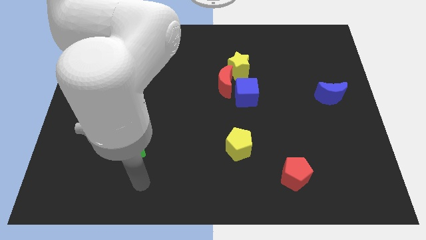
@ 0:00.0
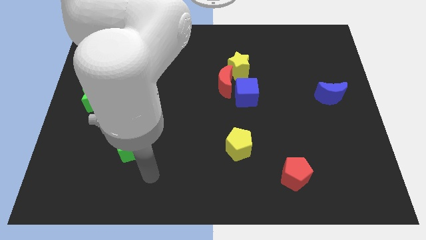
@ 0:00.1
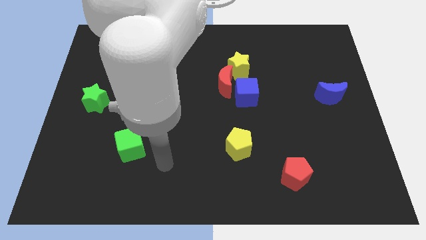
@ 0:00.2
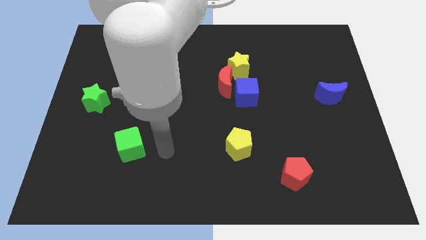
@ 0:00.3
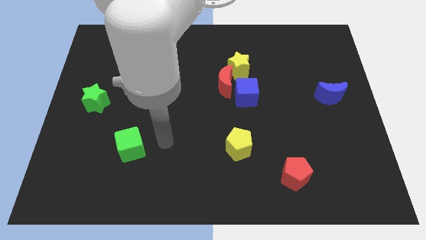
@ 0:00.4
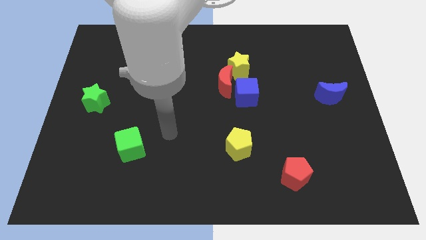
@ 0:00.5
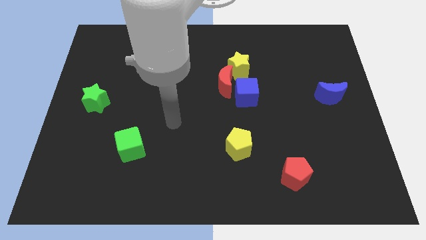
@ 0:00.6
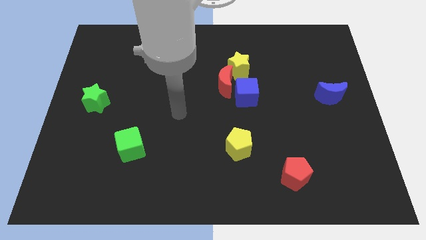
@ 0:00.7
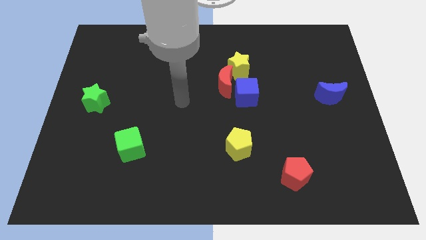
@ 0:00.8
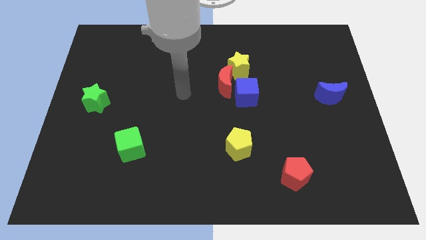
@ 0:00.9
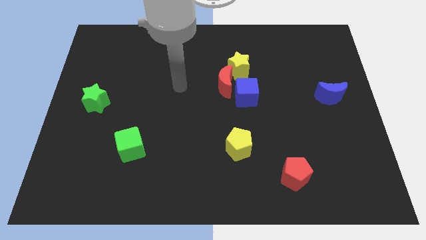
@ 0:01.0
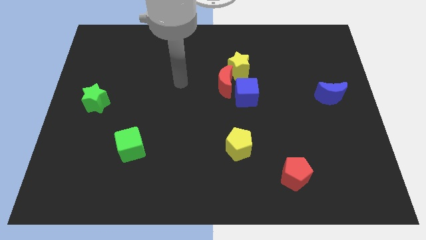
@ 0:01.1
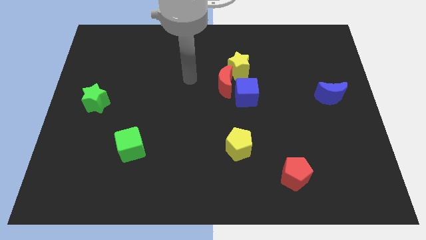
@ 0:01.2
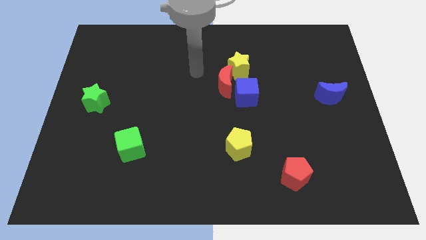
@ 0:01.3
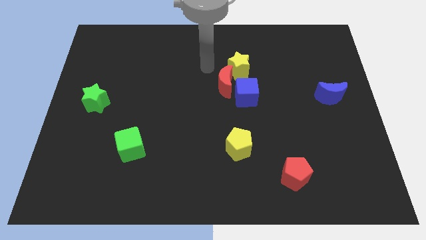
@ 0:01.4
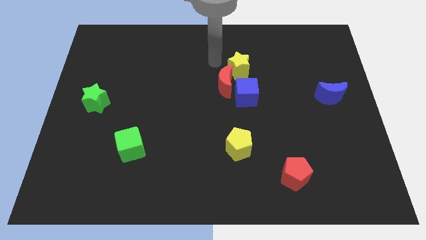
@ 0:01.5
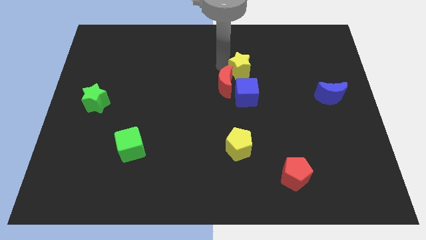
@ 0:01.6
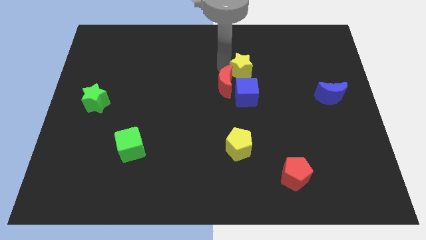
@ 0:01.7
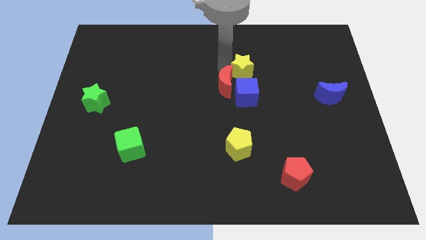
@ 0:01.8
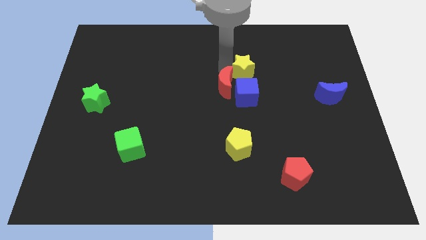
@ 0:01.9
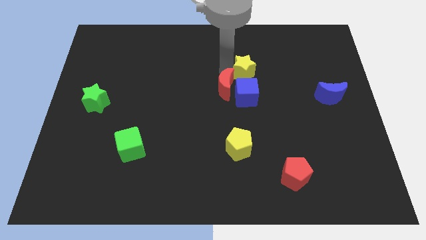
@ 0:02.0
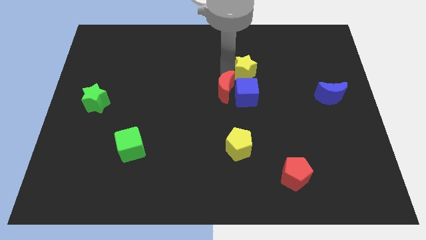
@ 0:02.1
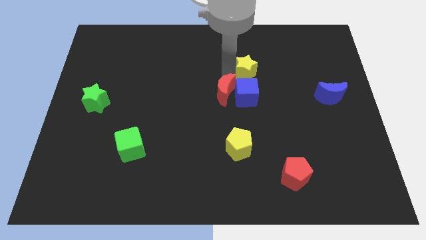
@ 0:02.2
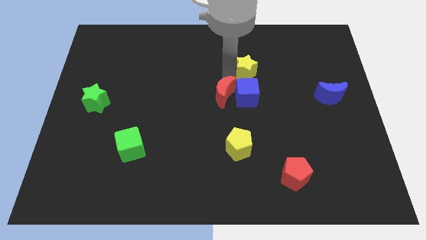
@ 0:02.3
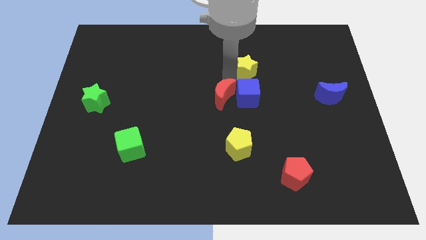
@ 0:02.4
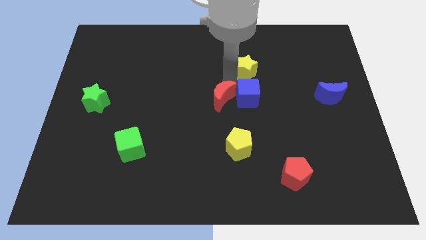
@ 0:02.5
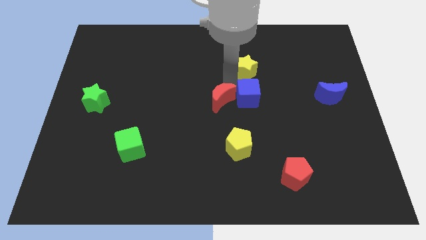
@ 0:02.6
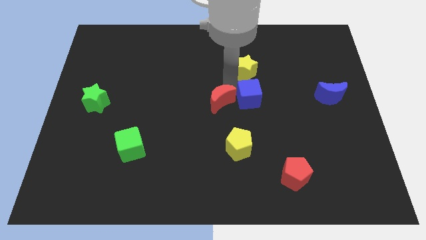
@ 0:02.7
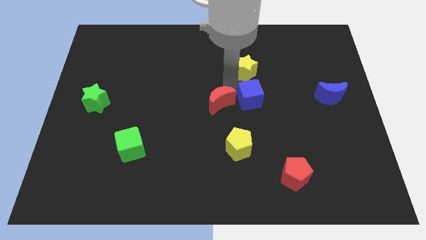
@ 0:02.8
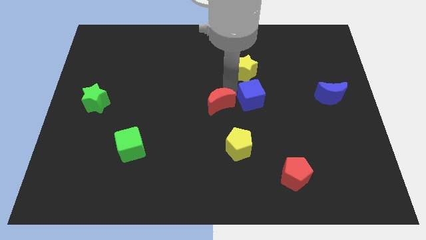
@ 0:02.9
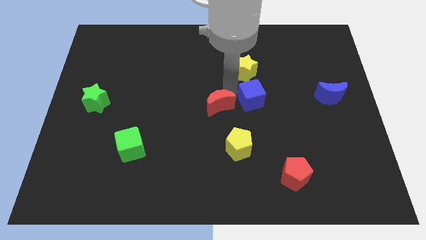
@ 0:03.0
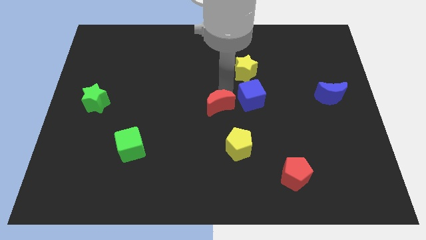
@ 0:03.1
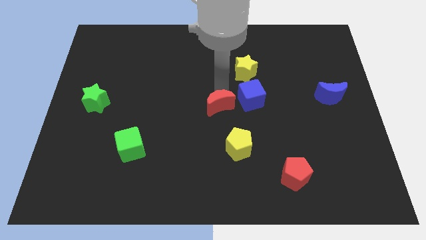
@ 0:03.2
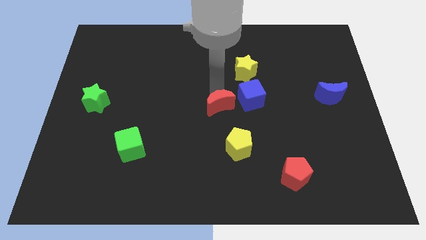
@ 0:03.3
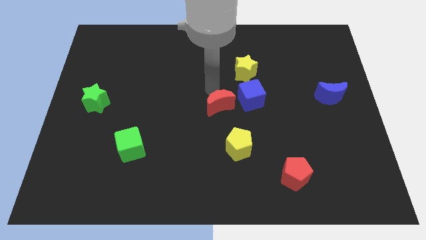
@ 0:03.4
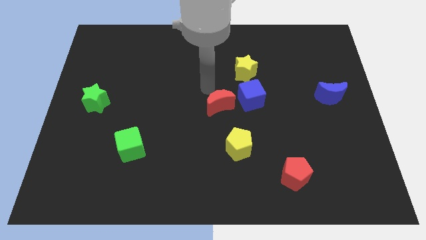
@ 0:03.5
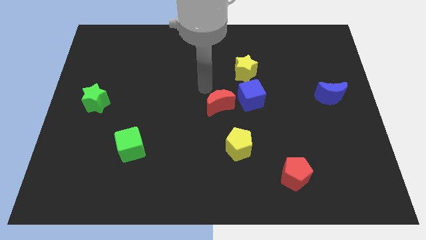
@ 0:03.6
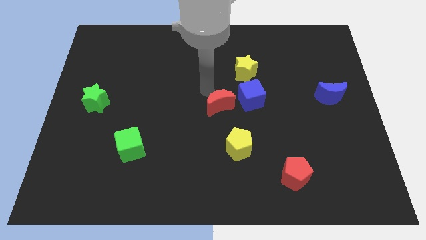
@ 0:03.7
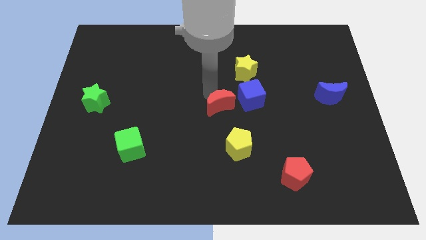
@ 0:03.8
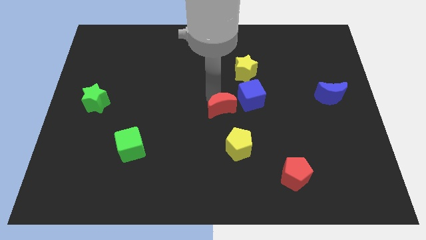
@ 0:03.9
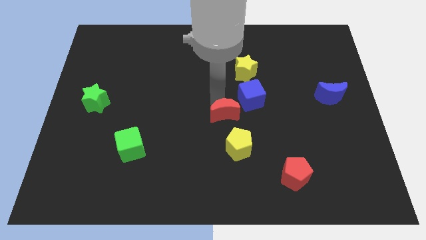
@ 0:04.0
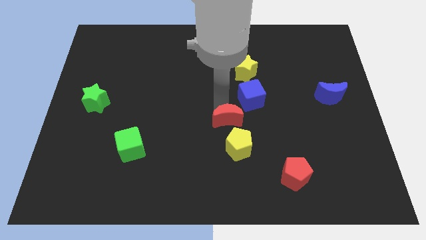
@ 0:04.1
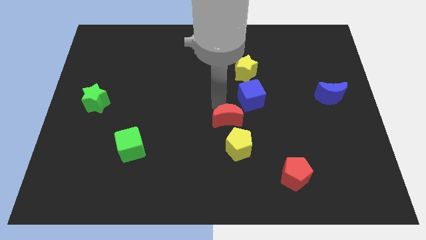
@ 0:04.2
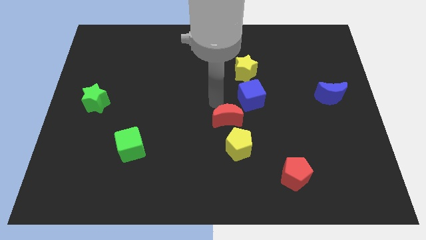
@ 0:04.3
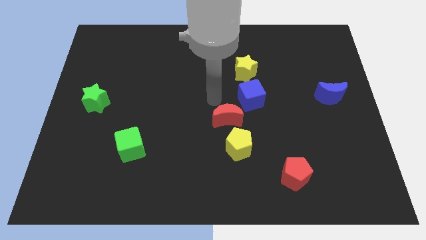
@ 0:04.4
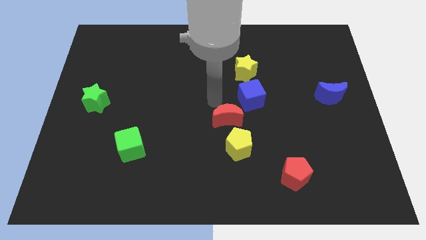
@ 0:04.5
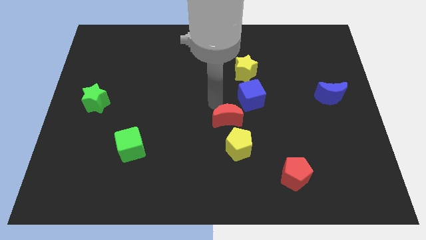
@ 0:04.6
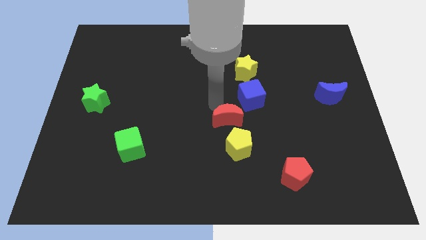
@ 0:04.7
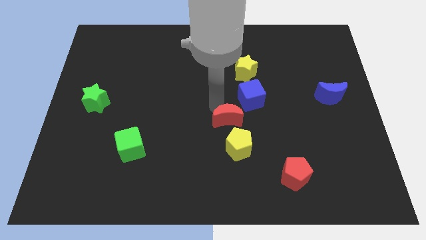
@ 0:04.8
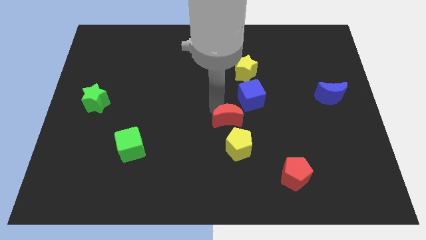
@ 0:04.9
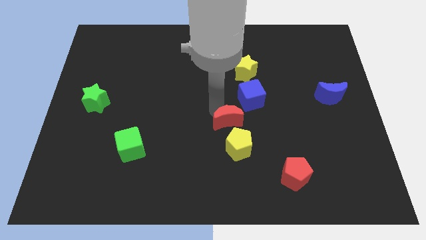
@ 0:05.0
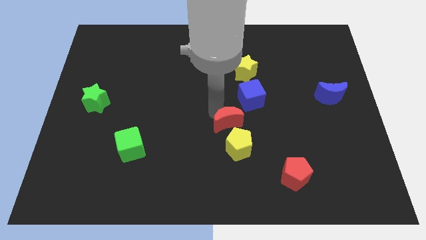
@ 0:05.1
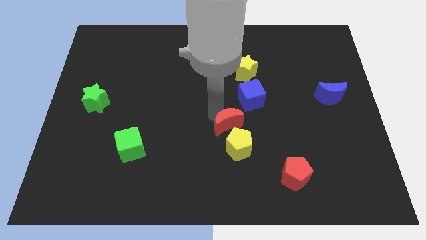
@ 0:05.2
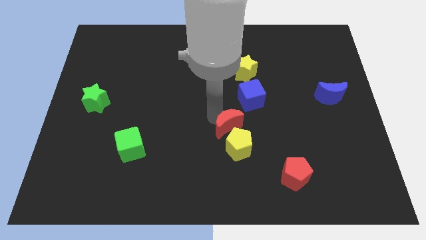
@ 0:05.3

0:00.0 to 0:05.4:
slide the red moon close to the yellow pentagon

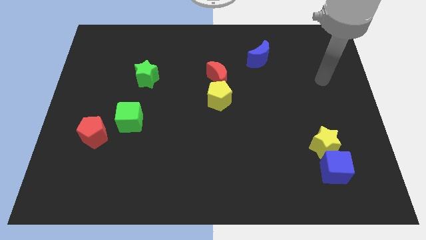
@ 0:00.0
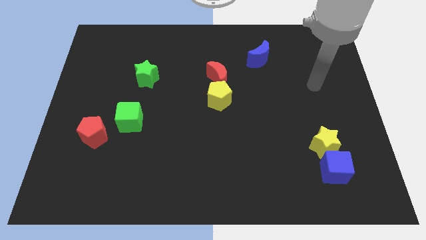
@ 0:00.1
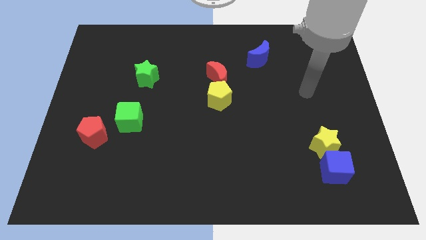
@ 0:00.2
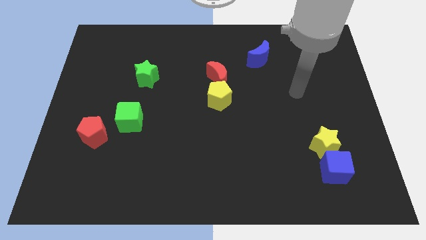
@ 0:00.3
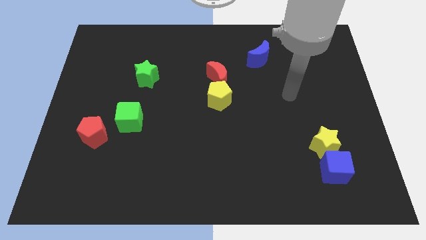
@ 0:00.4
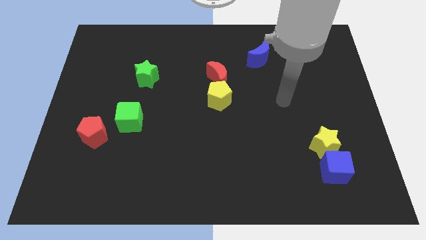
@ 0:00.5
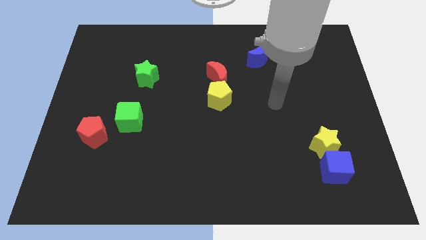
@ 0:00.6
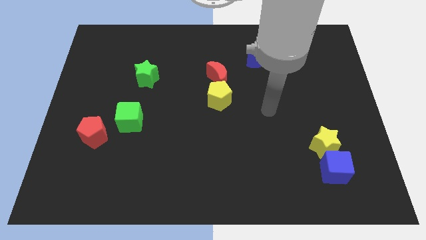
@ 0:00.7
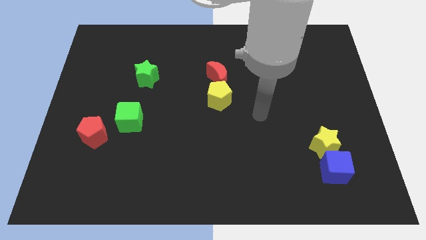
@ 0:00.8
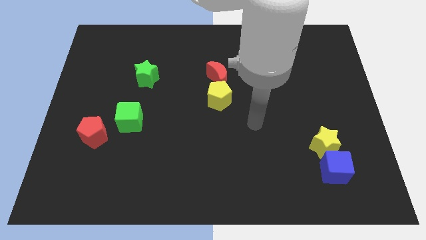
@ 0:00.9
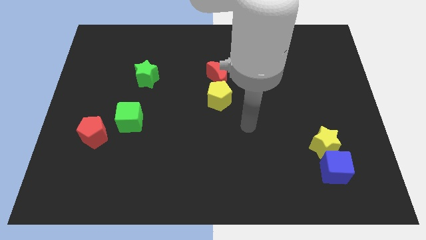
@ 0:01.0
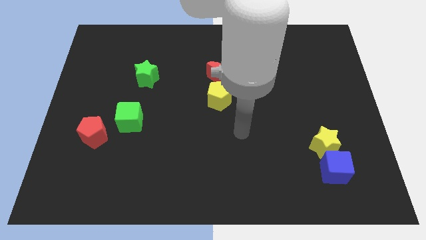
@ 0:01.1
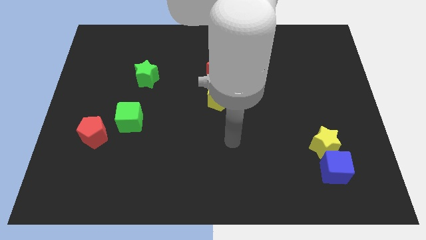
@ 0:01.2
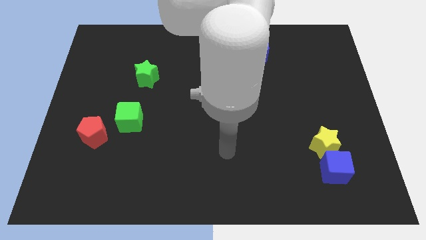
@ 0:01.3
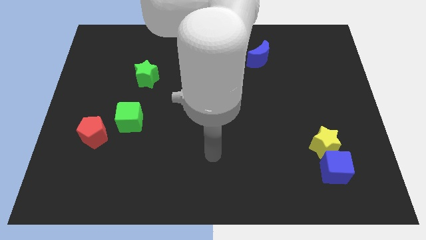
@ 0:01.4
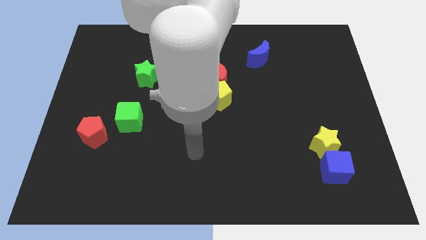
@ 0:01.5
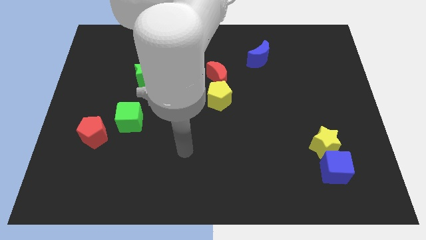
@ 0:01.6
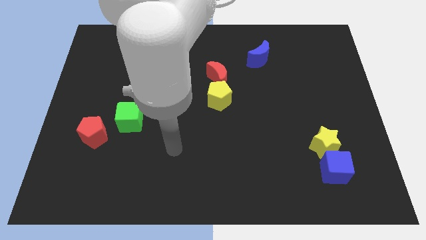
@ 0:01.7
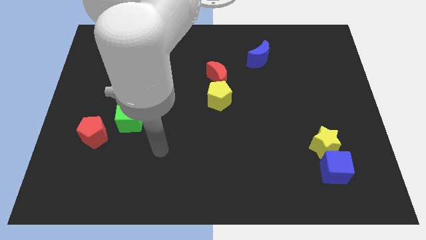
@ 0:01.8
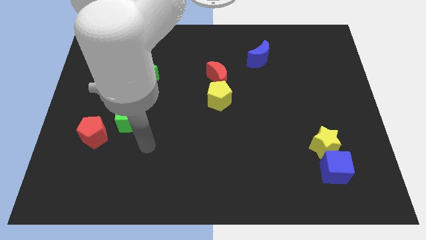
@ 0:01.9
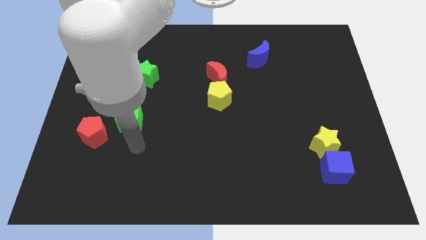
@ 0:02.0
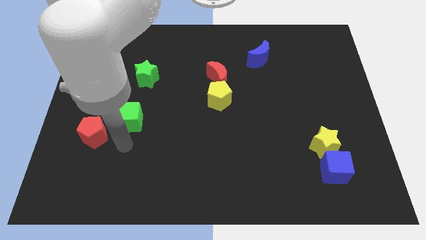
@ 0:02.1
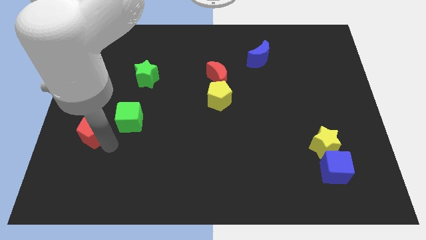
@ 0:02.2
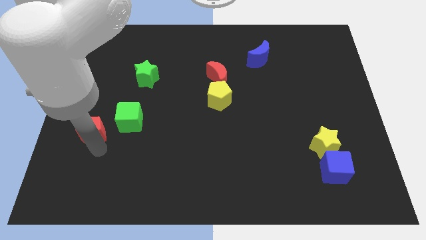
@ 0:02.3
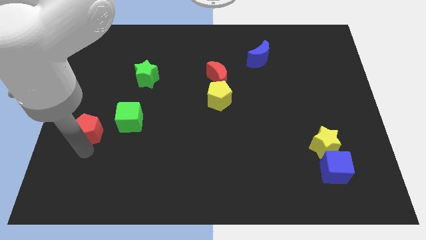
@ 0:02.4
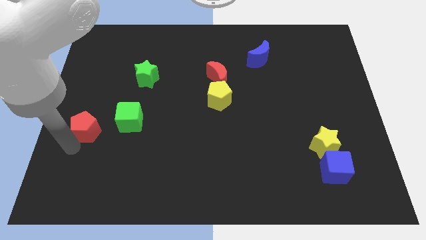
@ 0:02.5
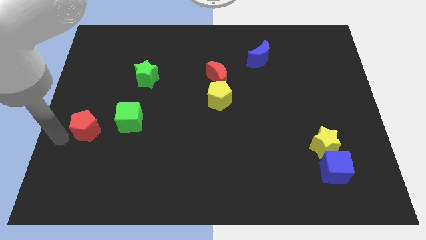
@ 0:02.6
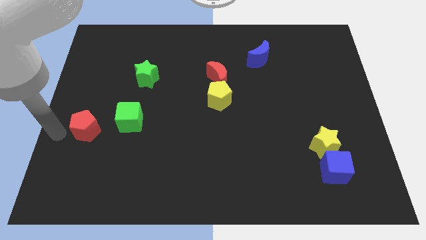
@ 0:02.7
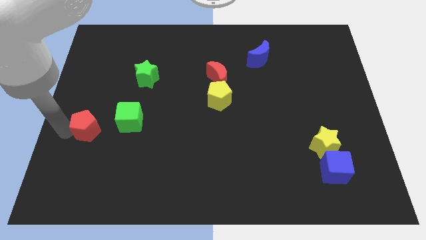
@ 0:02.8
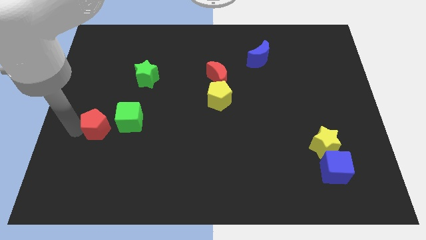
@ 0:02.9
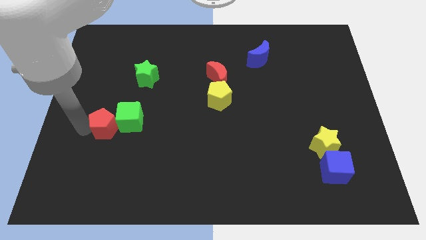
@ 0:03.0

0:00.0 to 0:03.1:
move the red pentagon next to the green cube
